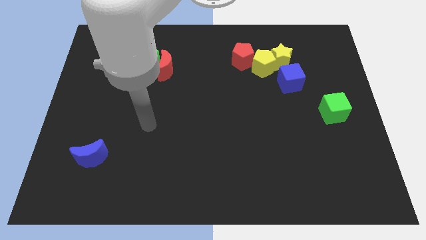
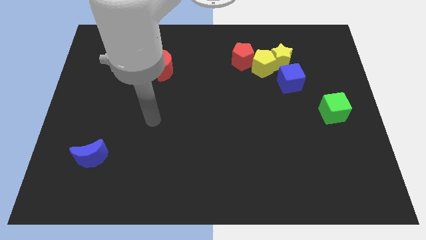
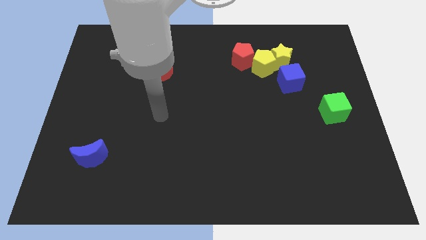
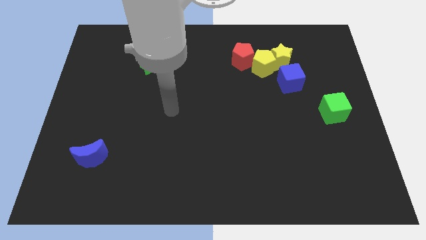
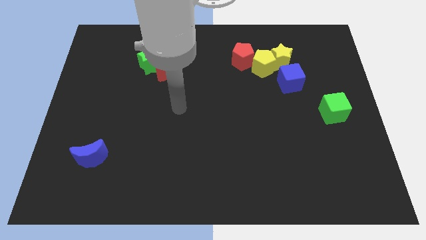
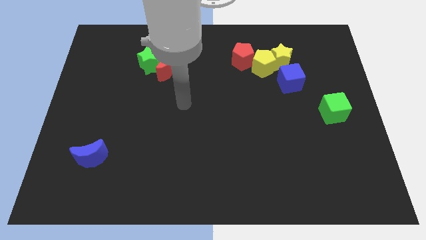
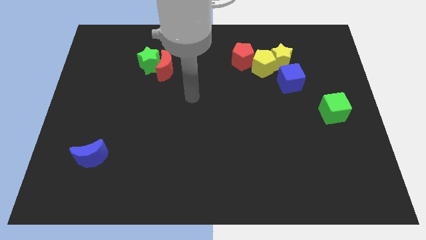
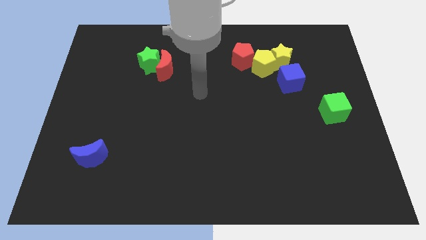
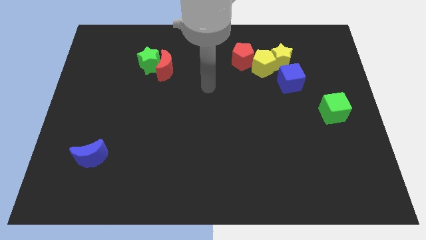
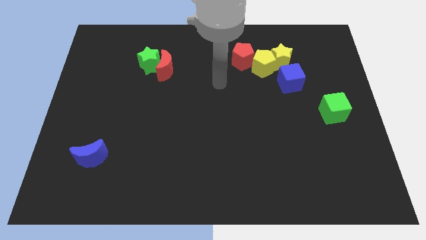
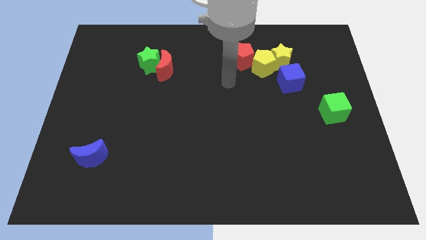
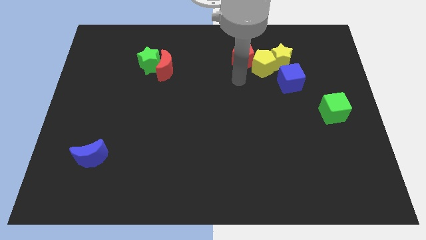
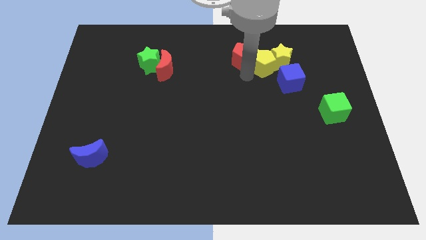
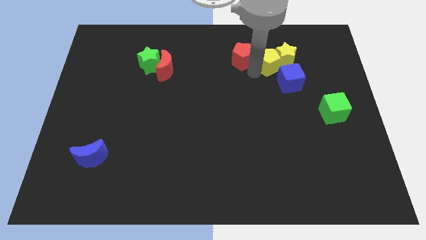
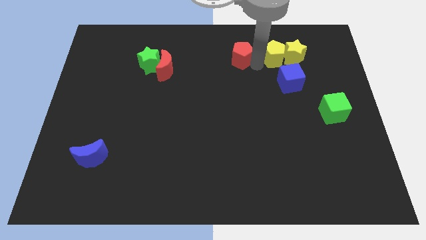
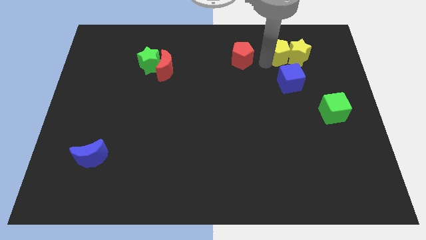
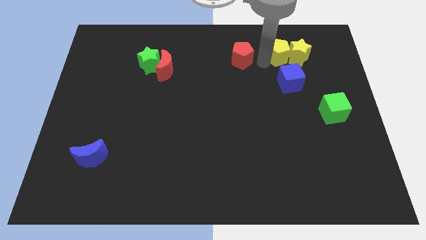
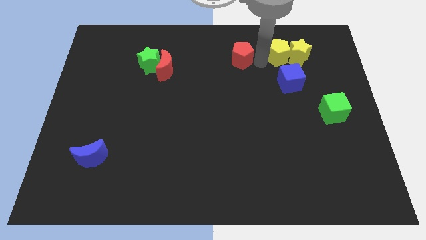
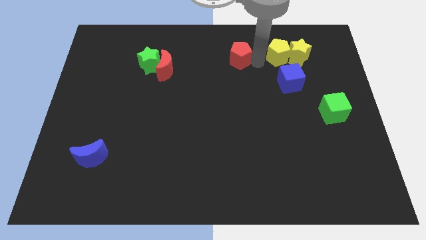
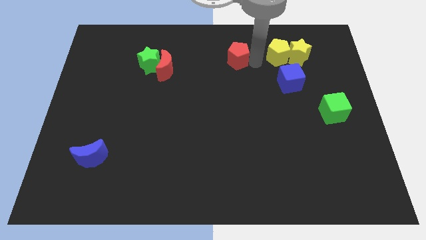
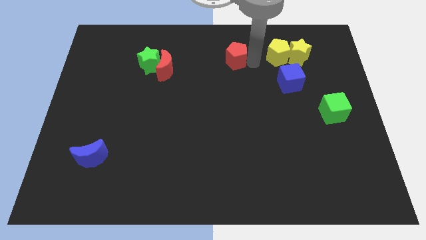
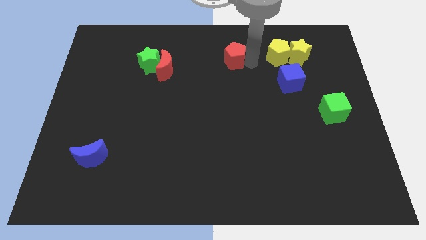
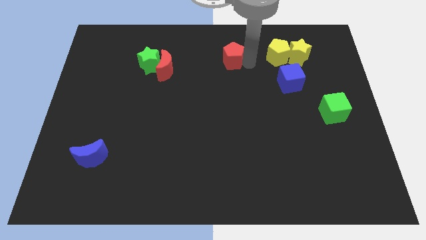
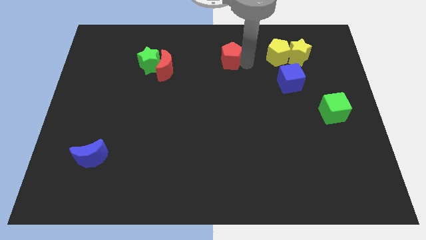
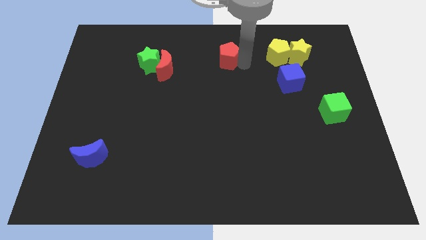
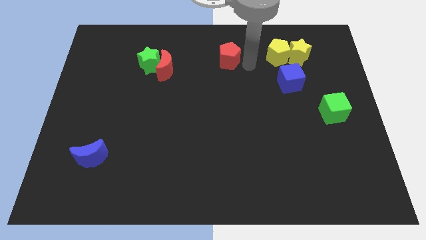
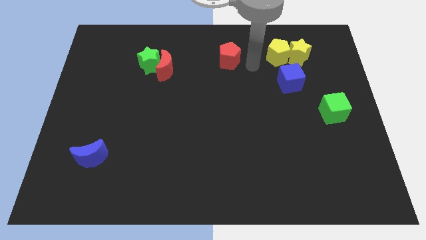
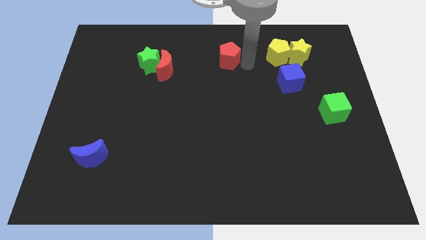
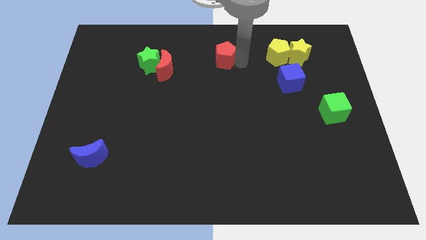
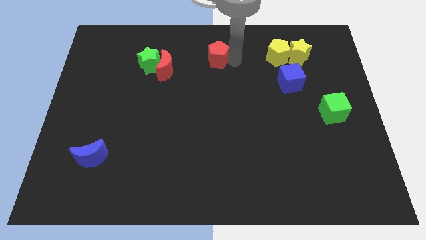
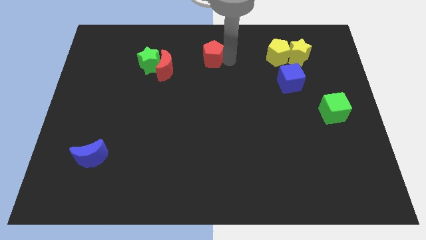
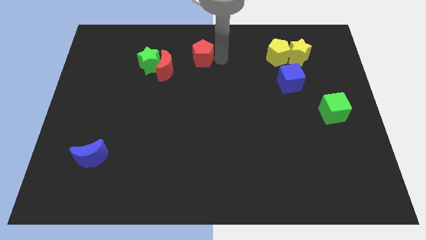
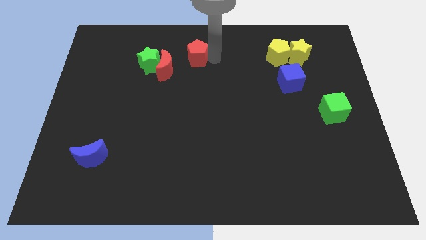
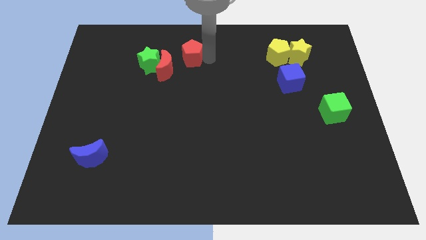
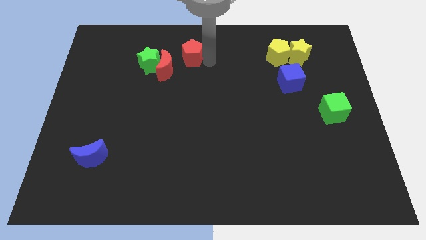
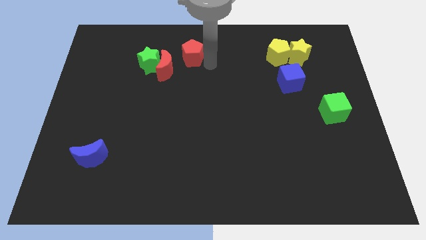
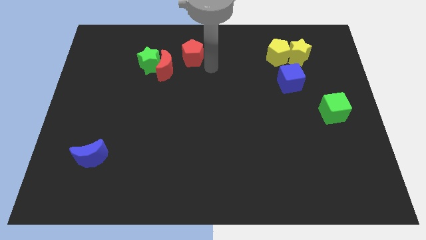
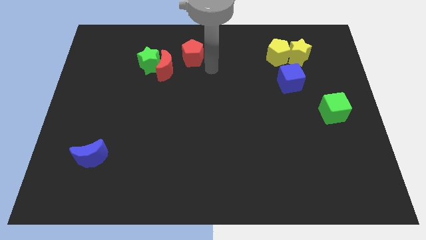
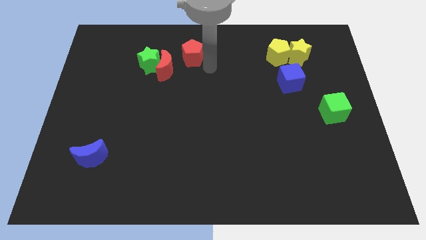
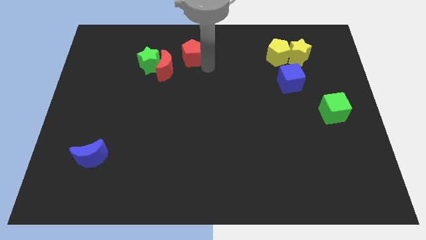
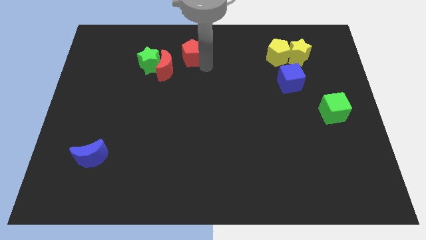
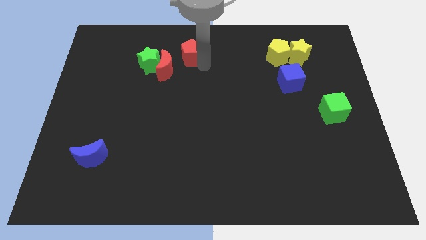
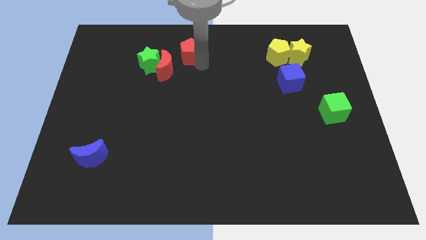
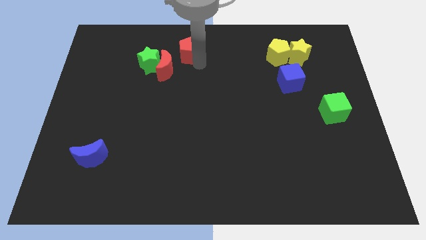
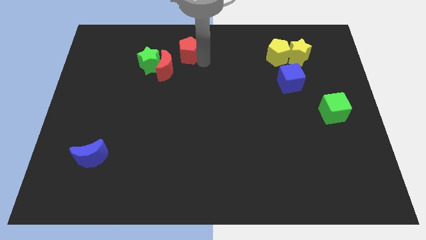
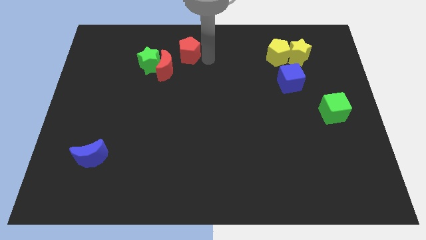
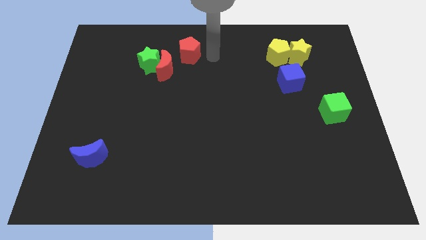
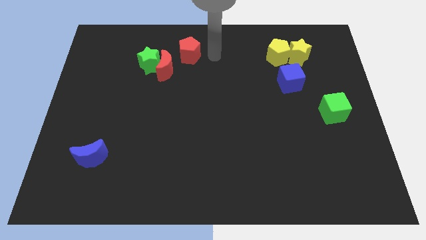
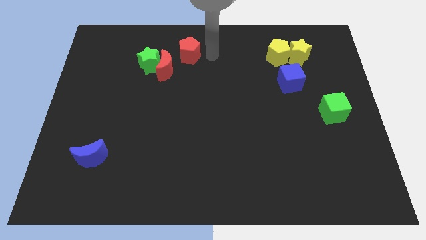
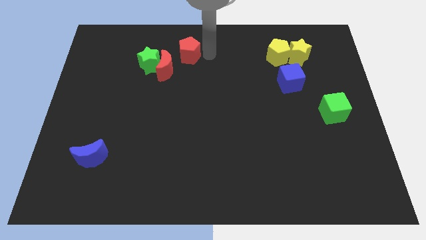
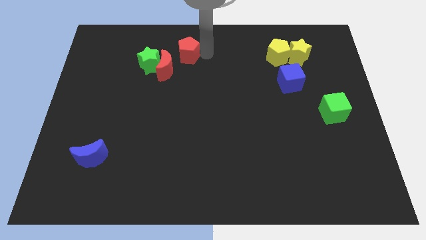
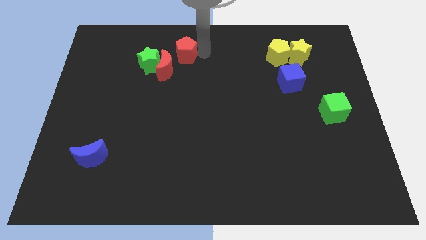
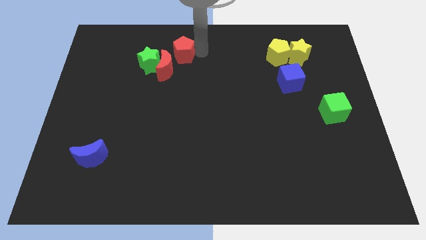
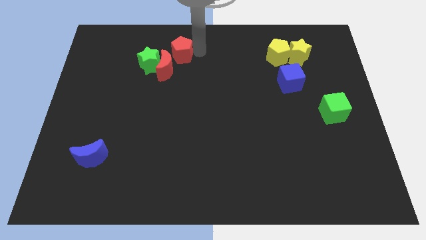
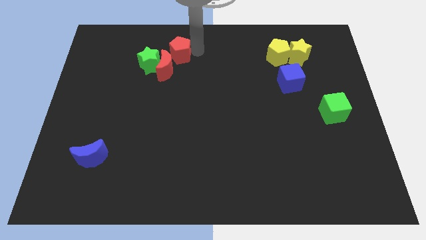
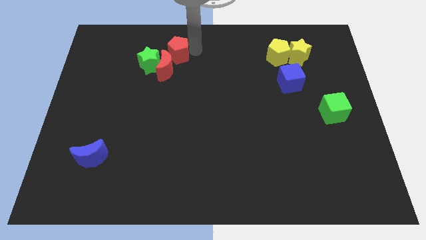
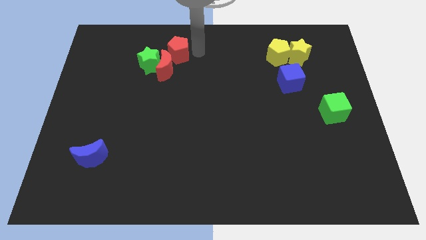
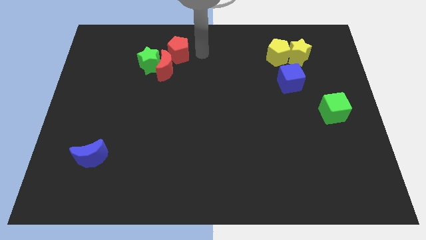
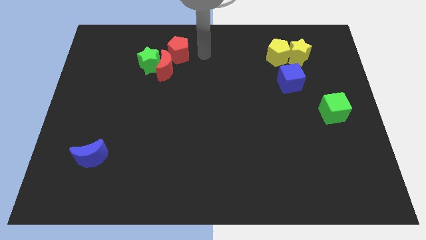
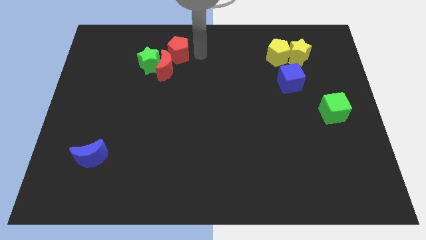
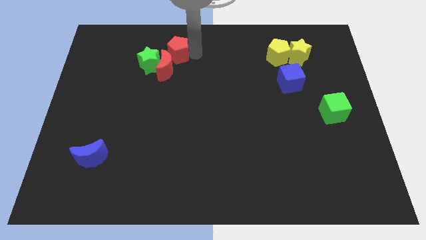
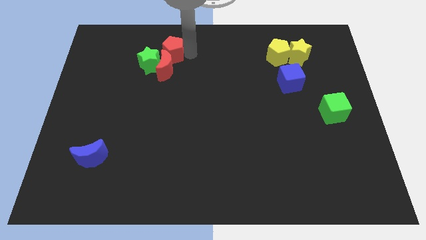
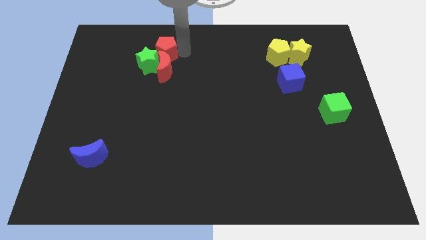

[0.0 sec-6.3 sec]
put the red pentagon to the green star

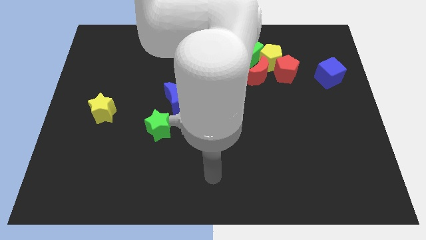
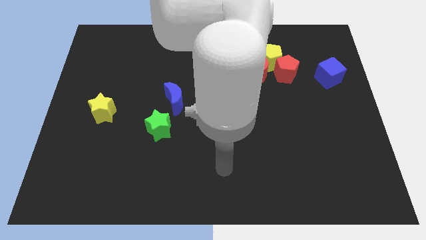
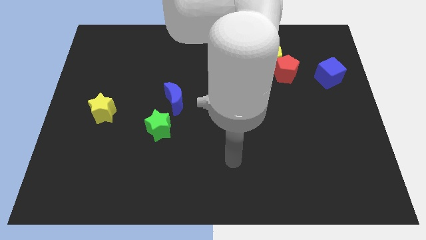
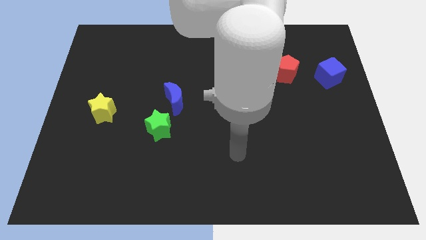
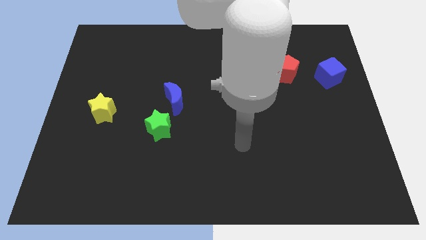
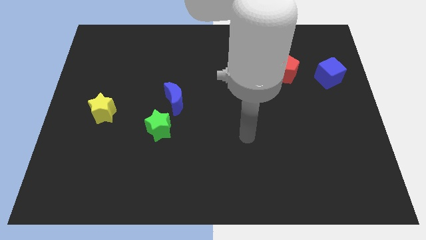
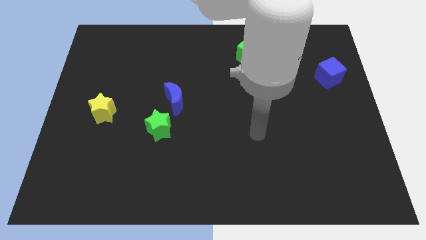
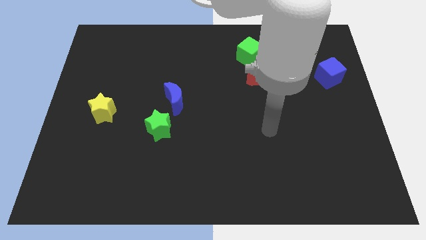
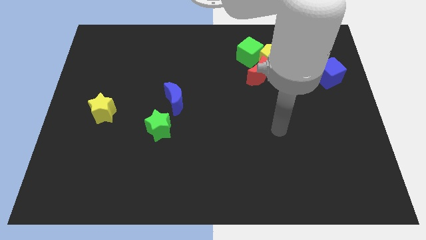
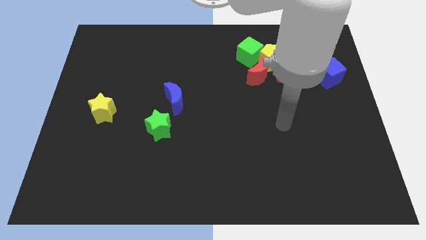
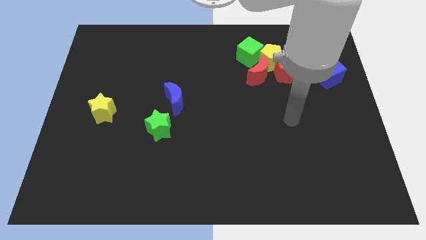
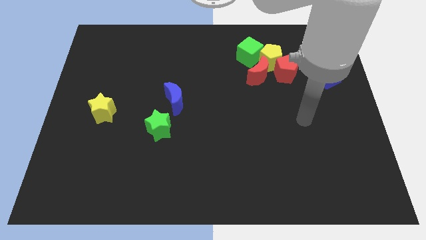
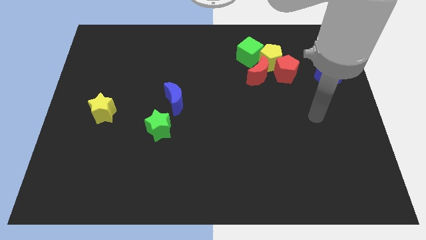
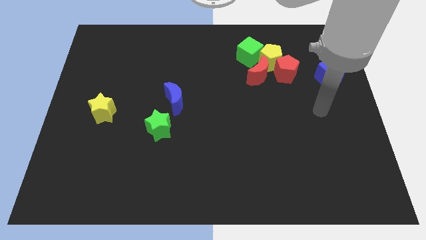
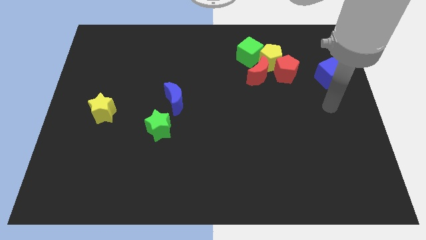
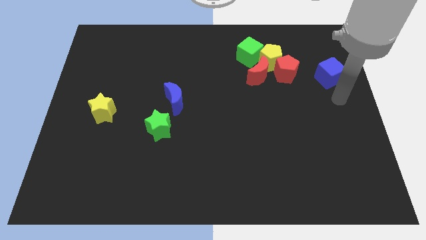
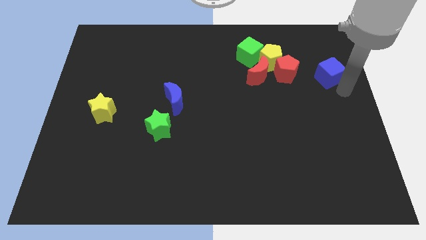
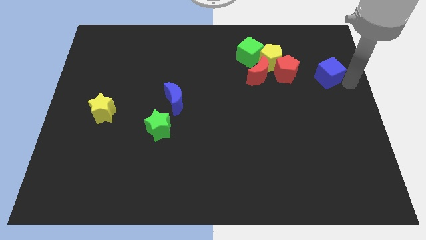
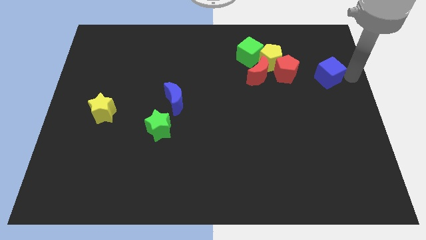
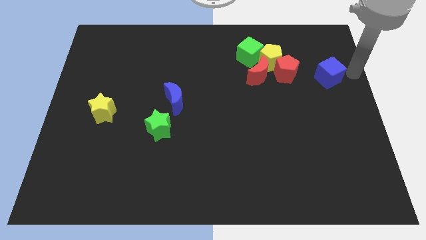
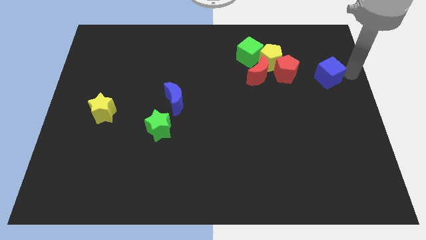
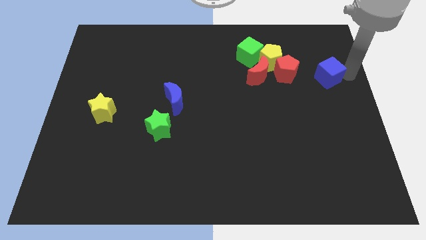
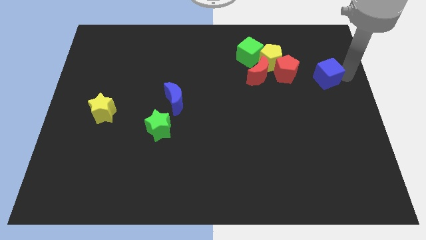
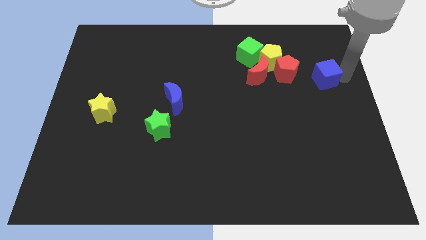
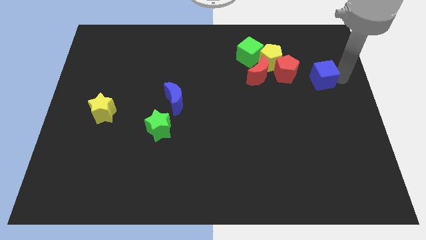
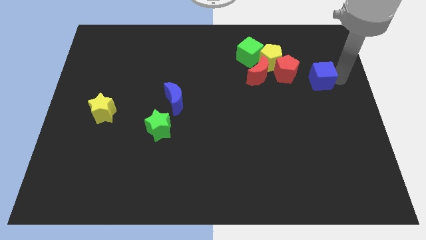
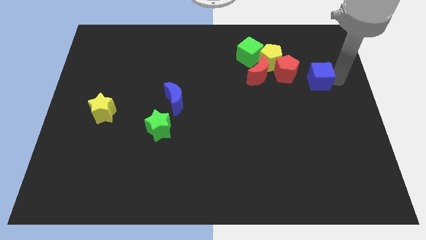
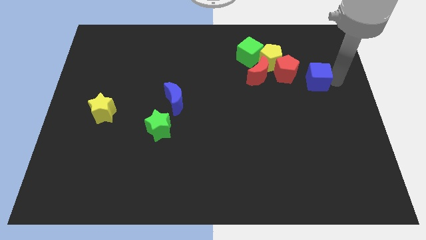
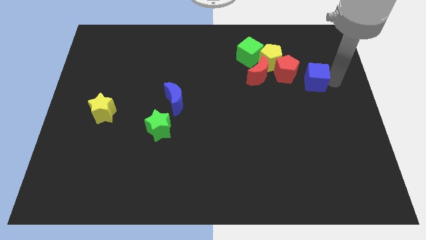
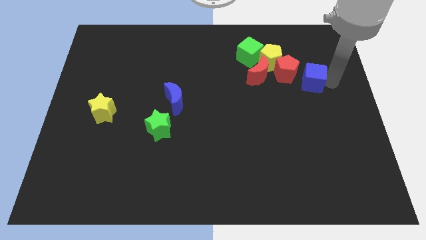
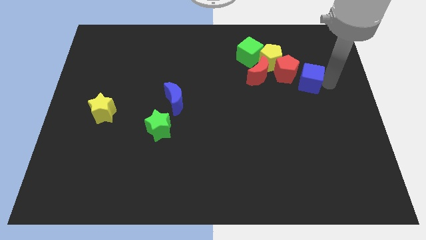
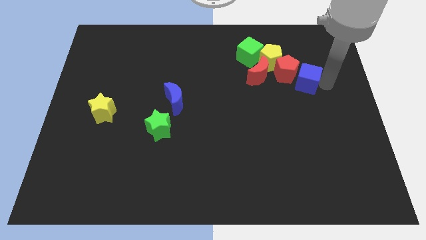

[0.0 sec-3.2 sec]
put the blue cube towards the red pentagon
